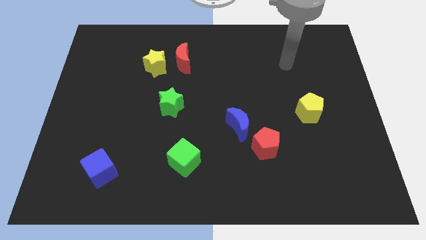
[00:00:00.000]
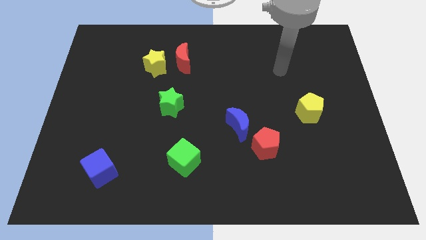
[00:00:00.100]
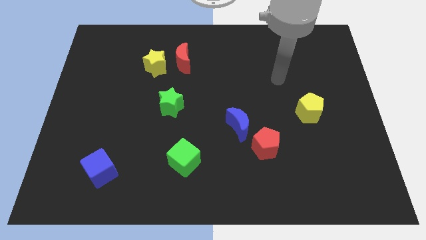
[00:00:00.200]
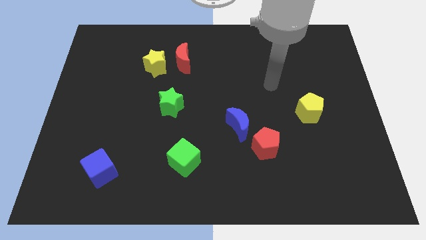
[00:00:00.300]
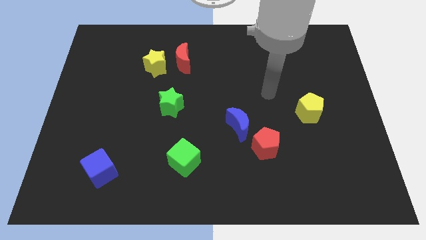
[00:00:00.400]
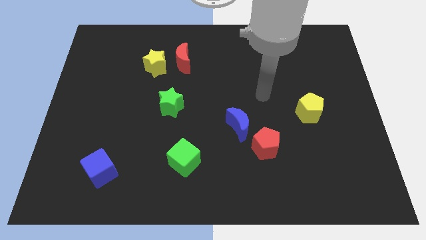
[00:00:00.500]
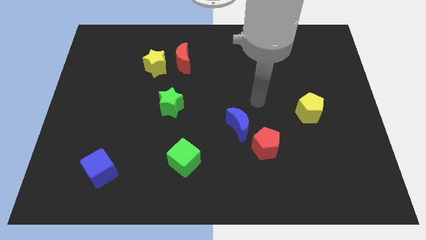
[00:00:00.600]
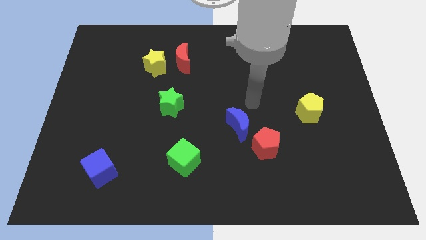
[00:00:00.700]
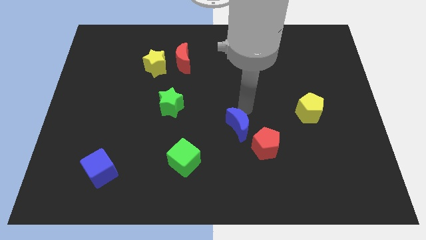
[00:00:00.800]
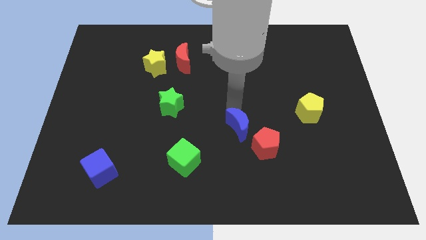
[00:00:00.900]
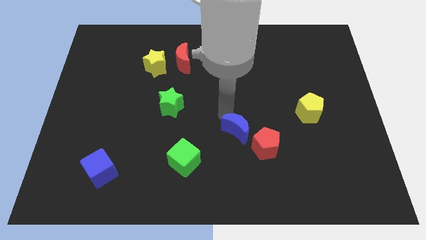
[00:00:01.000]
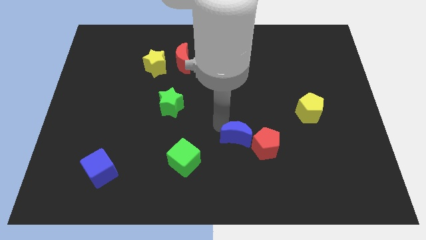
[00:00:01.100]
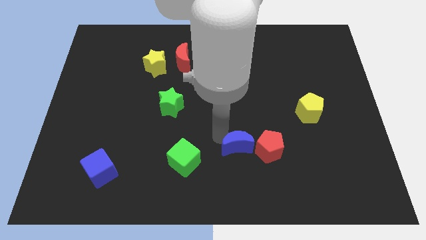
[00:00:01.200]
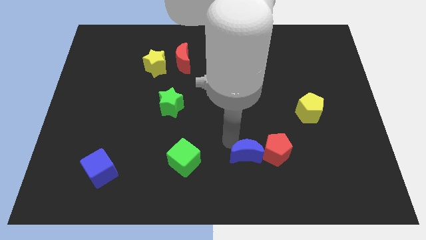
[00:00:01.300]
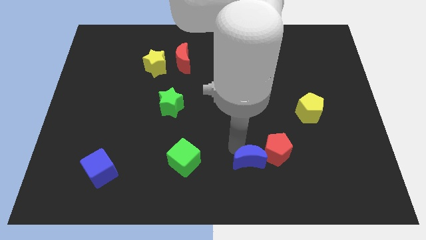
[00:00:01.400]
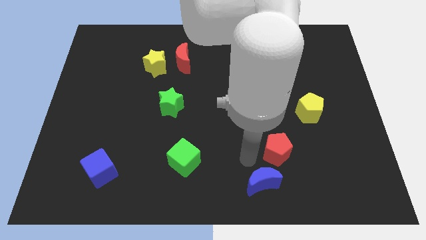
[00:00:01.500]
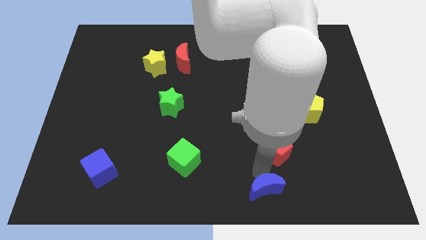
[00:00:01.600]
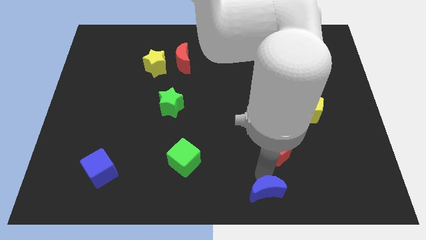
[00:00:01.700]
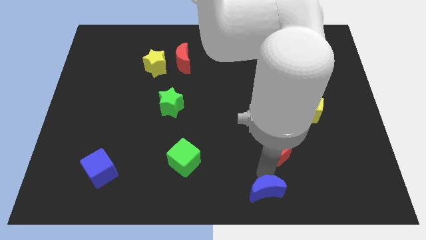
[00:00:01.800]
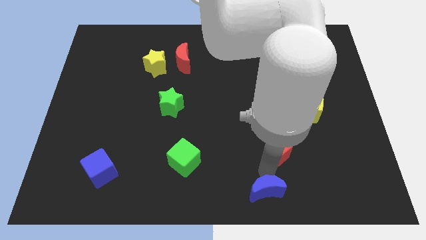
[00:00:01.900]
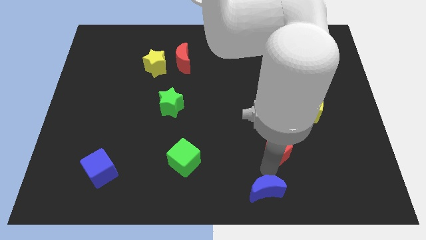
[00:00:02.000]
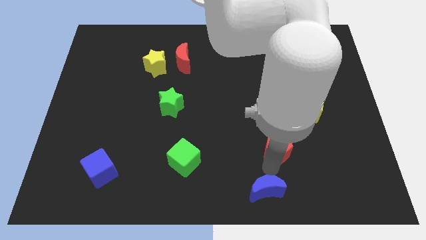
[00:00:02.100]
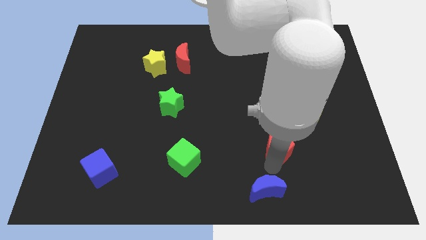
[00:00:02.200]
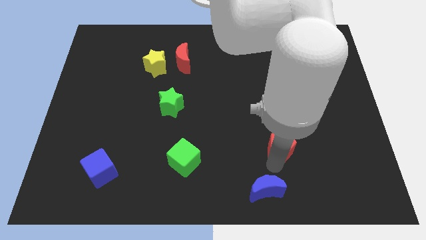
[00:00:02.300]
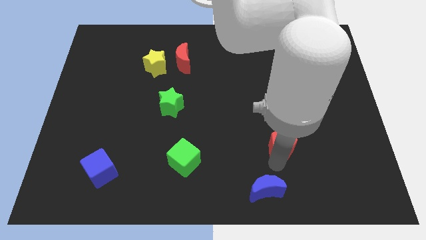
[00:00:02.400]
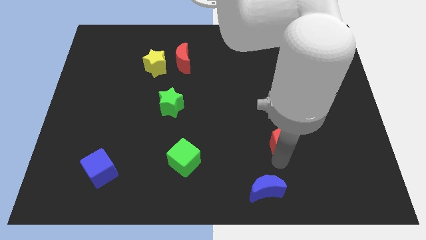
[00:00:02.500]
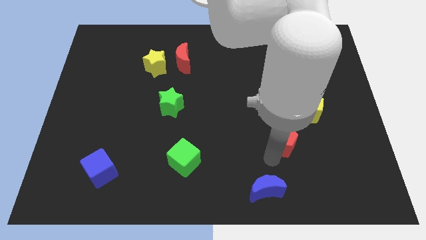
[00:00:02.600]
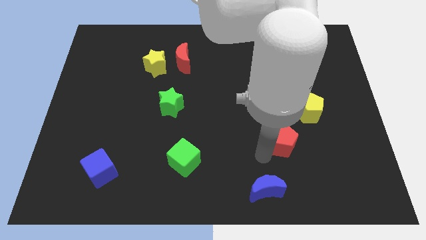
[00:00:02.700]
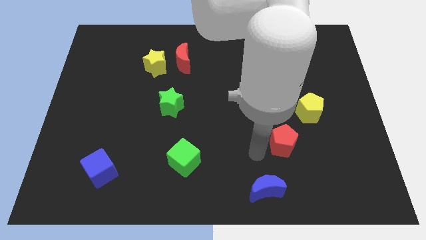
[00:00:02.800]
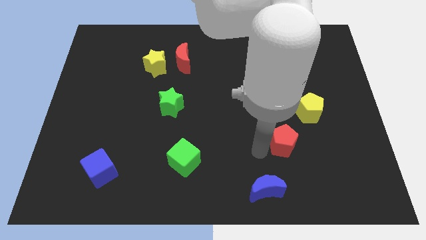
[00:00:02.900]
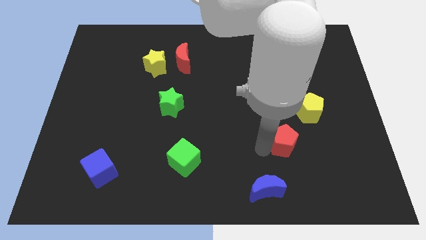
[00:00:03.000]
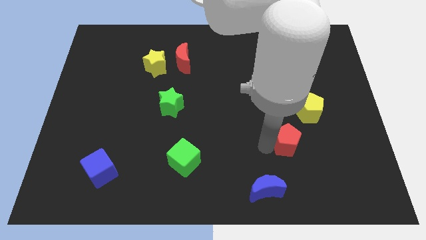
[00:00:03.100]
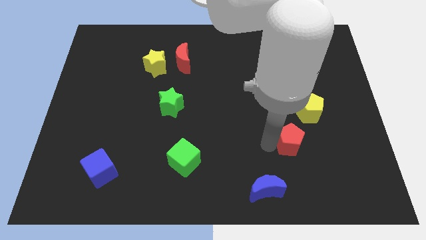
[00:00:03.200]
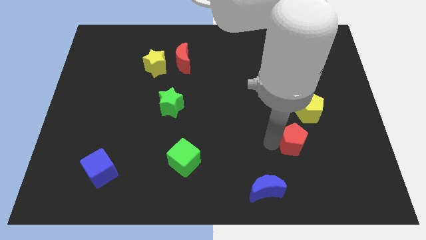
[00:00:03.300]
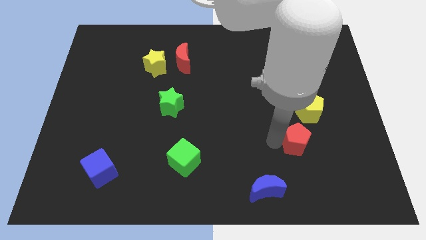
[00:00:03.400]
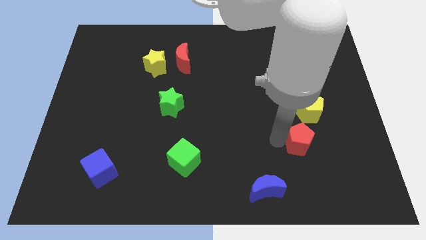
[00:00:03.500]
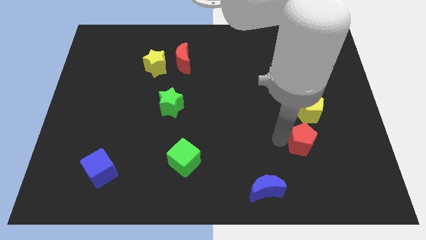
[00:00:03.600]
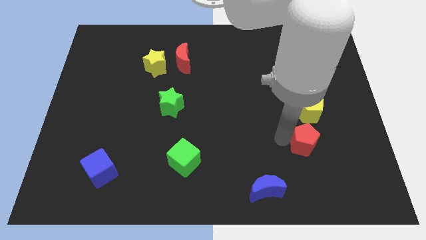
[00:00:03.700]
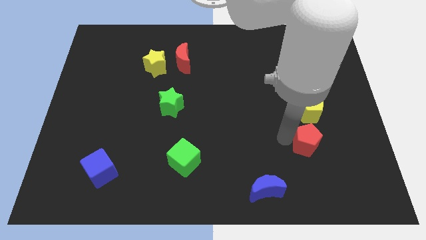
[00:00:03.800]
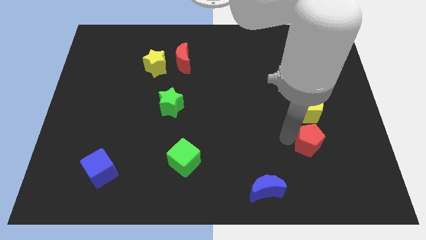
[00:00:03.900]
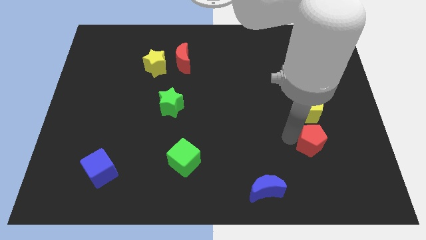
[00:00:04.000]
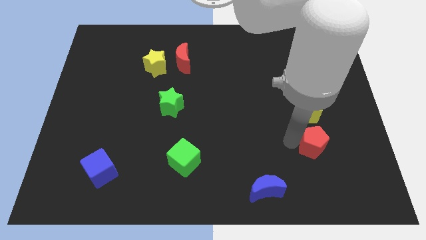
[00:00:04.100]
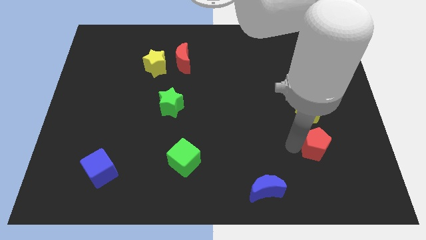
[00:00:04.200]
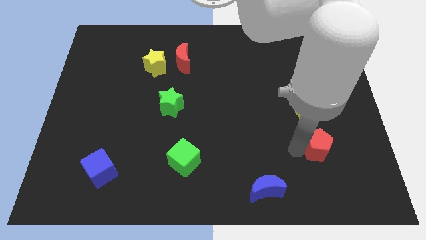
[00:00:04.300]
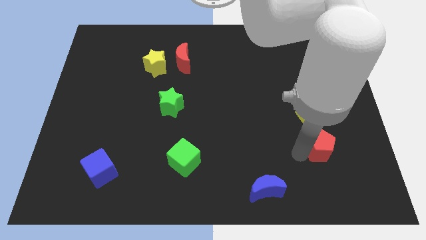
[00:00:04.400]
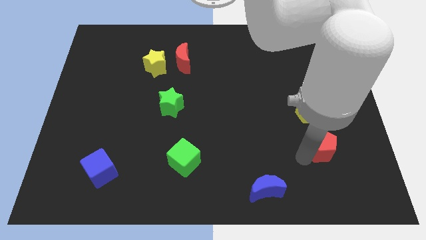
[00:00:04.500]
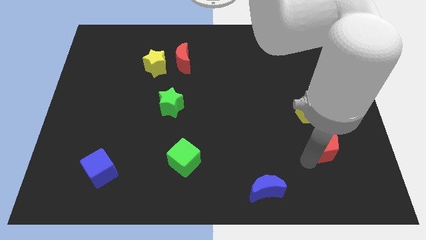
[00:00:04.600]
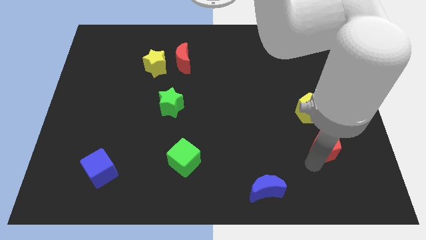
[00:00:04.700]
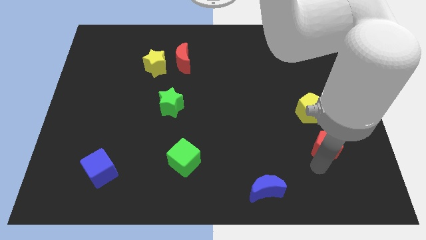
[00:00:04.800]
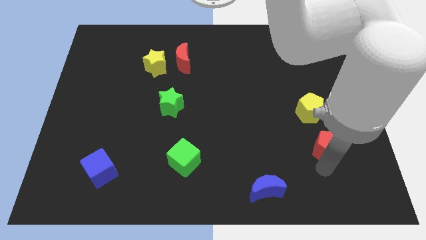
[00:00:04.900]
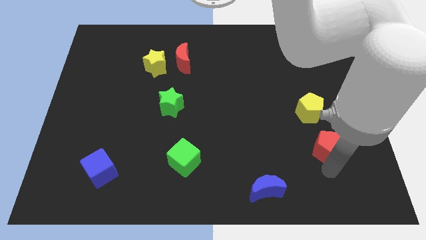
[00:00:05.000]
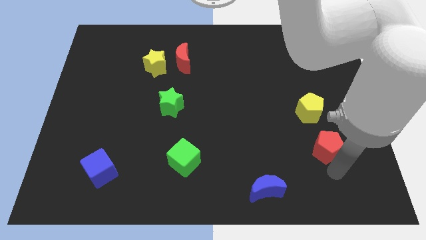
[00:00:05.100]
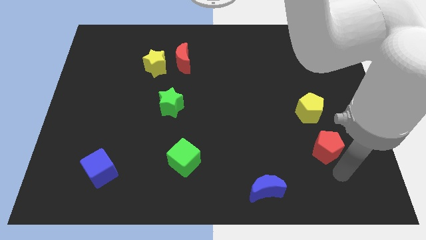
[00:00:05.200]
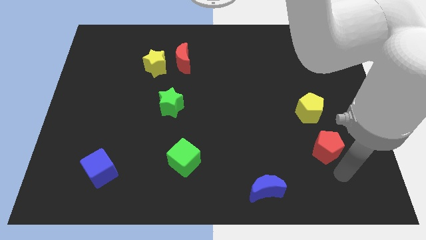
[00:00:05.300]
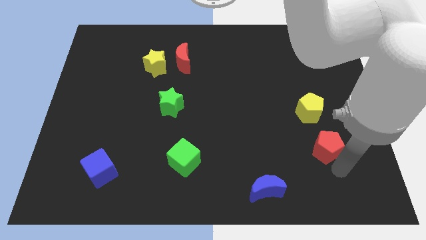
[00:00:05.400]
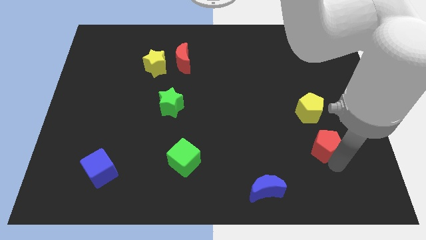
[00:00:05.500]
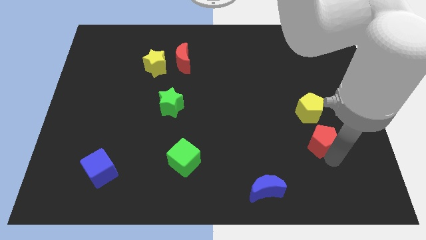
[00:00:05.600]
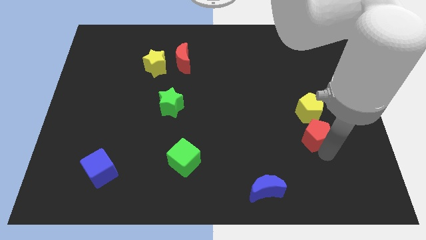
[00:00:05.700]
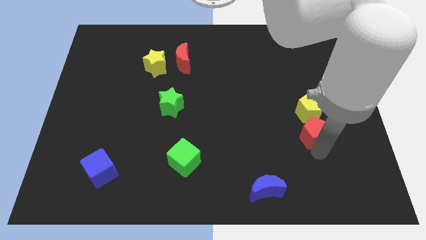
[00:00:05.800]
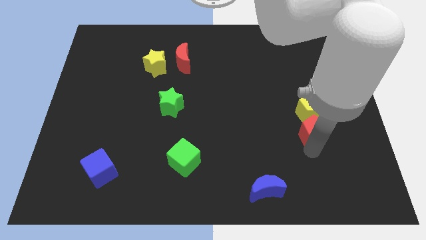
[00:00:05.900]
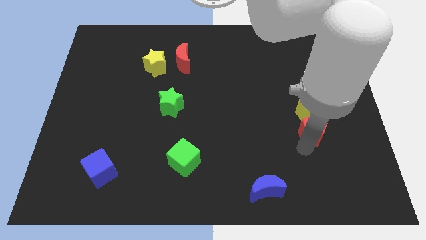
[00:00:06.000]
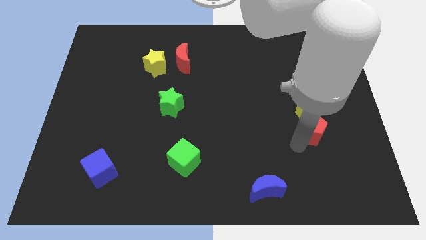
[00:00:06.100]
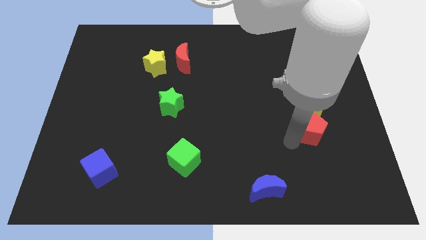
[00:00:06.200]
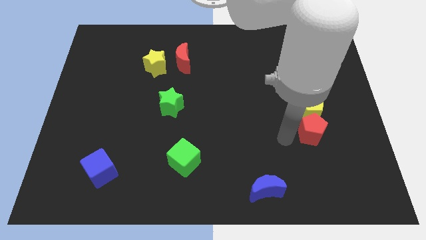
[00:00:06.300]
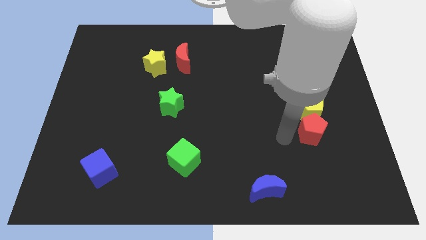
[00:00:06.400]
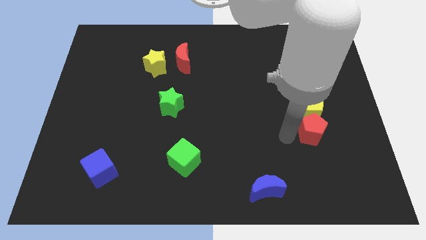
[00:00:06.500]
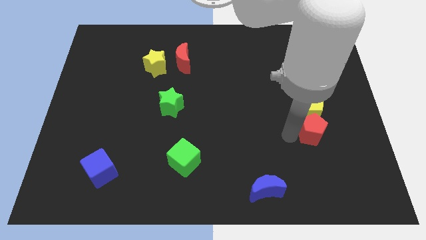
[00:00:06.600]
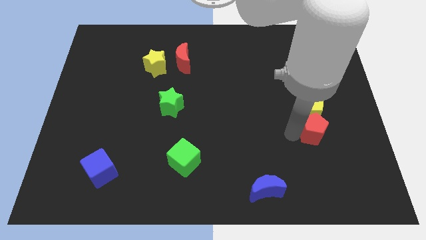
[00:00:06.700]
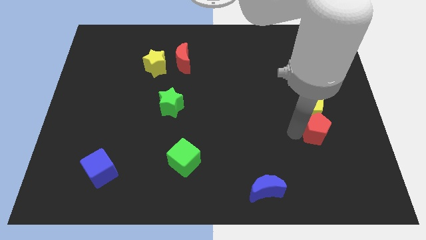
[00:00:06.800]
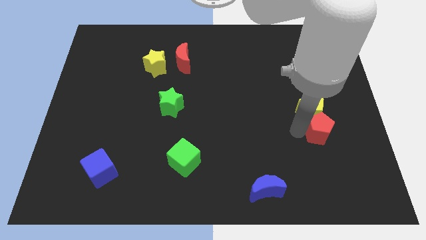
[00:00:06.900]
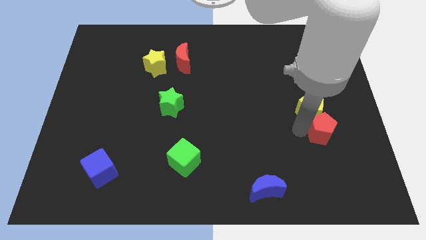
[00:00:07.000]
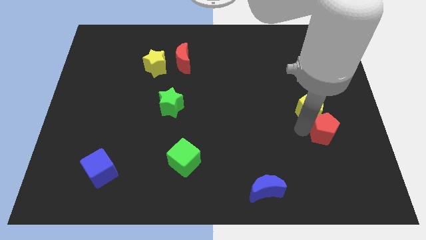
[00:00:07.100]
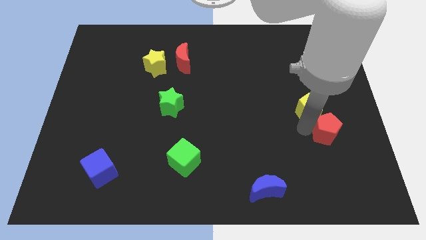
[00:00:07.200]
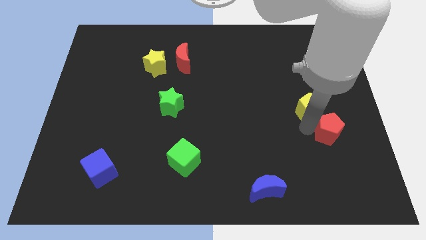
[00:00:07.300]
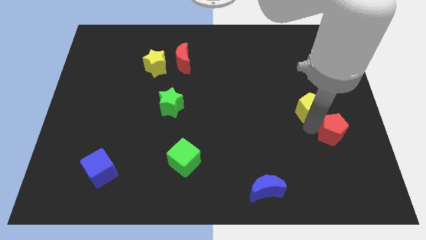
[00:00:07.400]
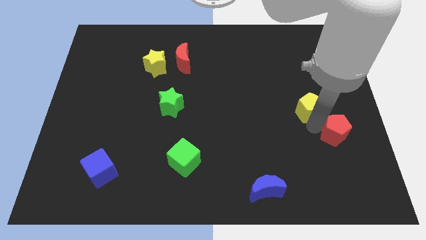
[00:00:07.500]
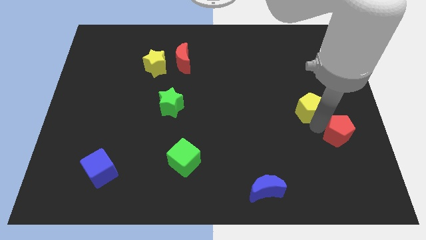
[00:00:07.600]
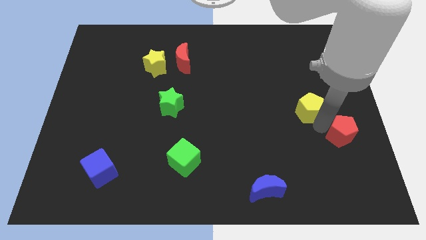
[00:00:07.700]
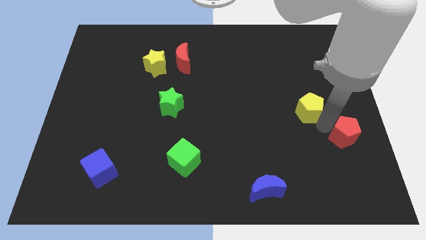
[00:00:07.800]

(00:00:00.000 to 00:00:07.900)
put the red pentagon to the right side

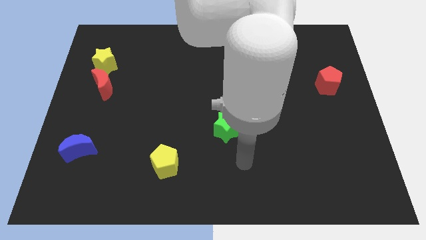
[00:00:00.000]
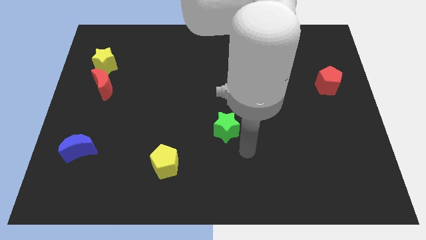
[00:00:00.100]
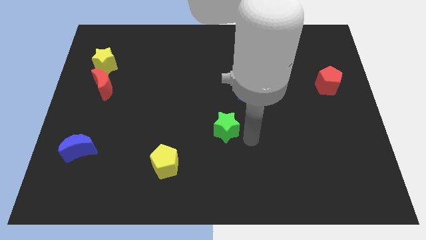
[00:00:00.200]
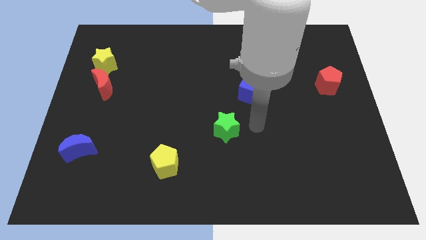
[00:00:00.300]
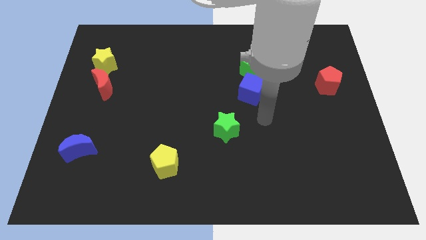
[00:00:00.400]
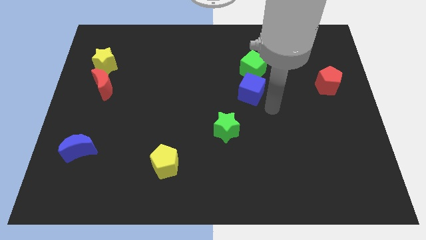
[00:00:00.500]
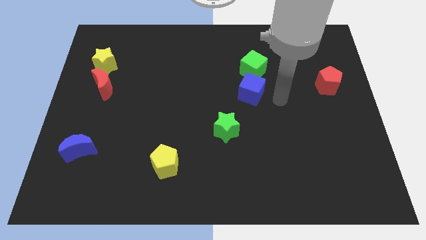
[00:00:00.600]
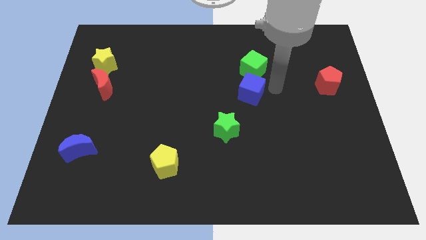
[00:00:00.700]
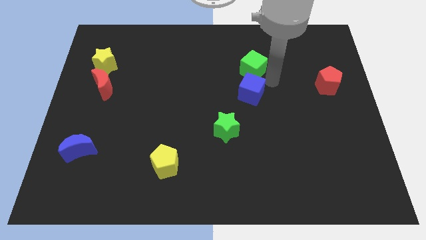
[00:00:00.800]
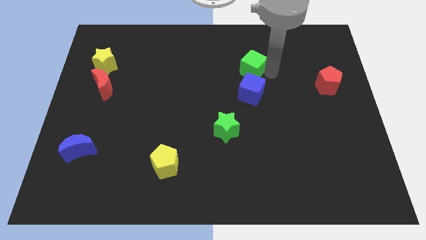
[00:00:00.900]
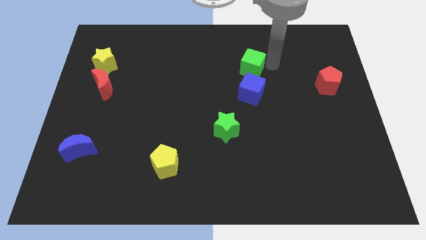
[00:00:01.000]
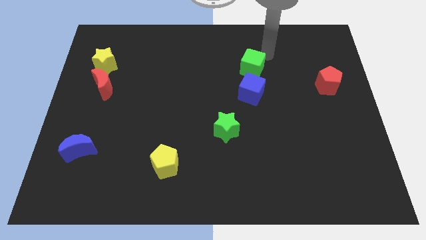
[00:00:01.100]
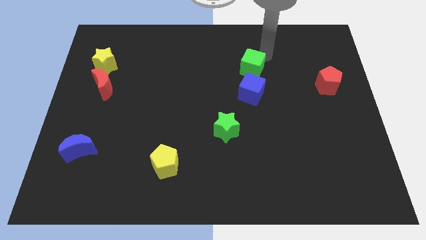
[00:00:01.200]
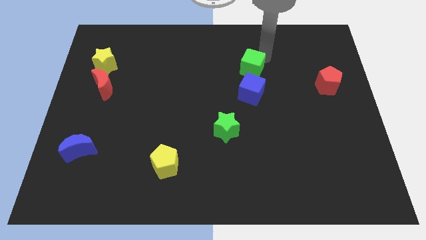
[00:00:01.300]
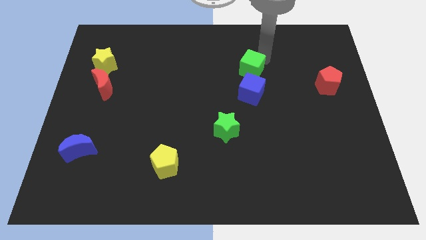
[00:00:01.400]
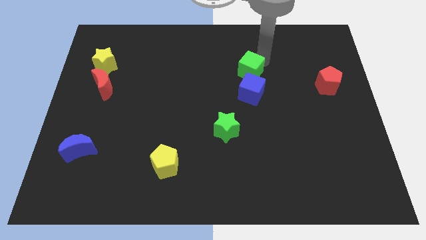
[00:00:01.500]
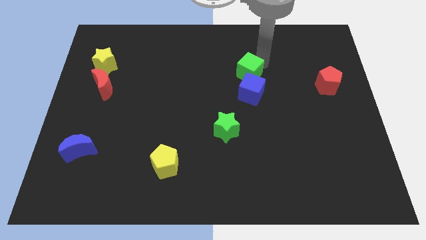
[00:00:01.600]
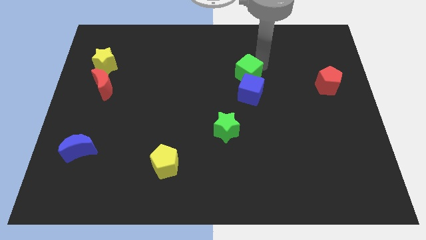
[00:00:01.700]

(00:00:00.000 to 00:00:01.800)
put the green cube to the center of the board
